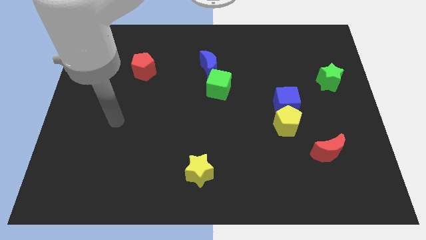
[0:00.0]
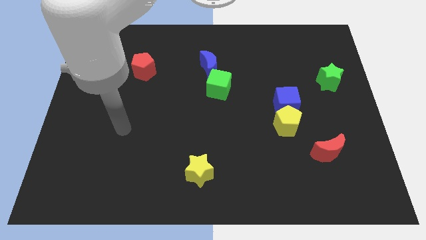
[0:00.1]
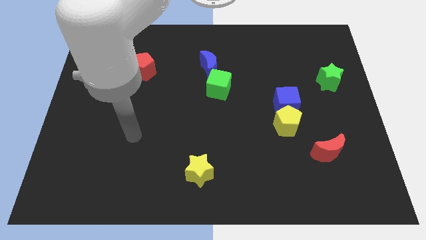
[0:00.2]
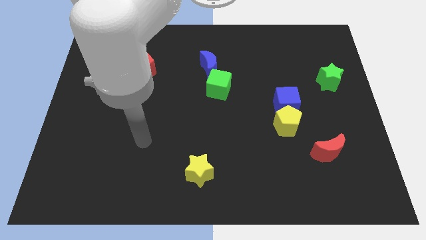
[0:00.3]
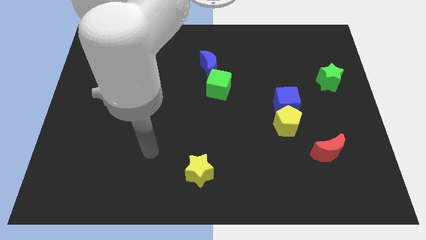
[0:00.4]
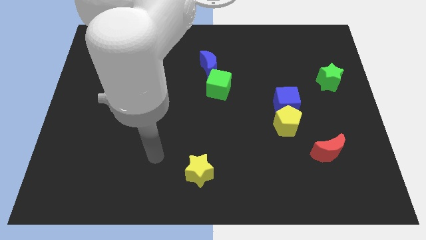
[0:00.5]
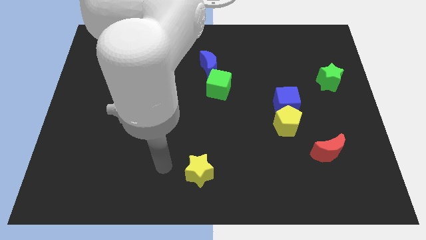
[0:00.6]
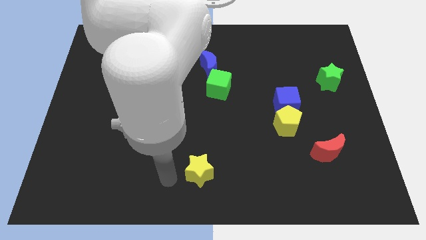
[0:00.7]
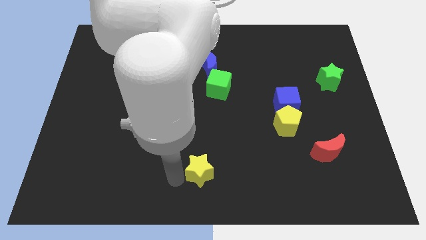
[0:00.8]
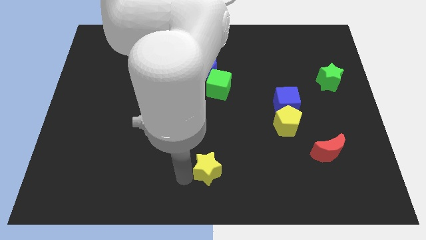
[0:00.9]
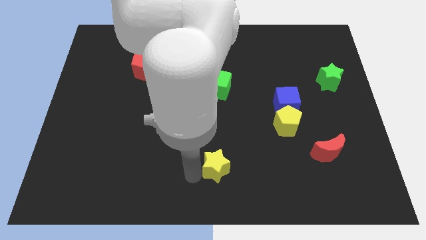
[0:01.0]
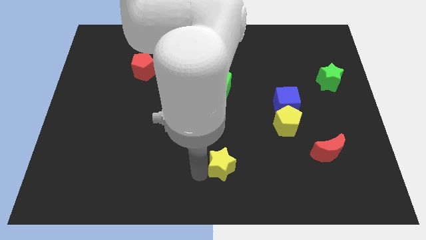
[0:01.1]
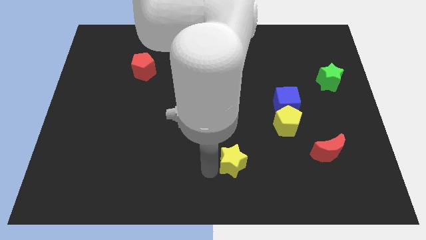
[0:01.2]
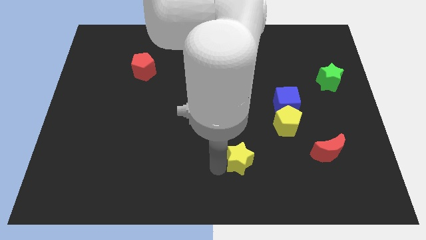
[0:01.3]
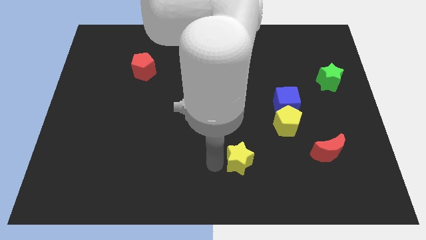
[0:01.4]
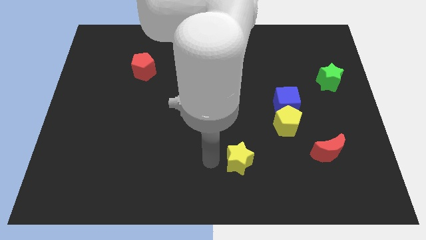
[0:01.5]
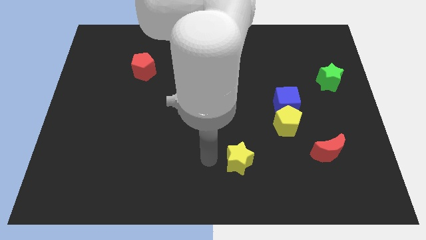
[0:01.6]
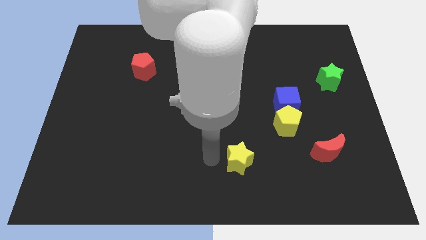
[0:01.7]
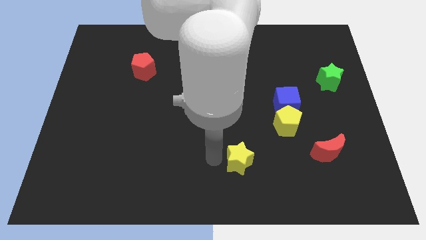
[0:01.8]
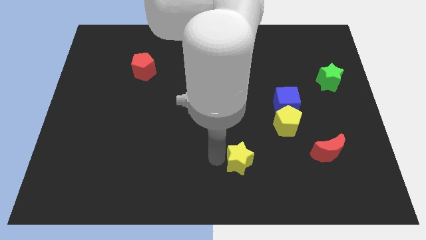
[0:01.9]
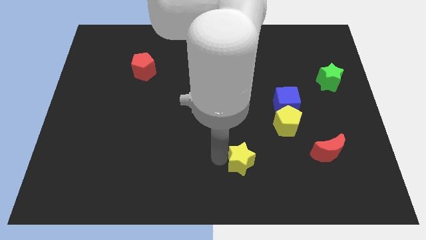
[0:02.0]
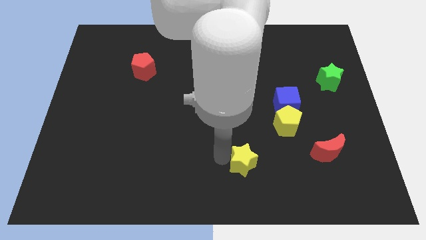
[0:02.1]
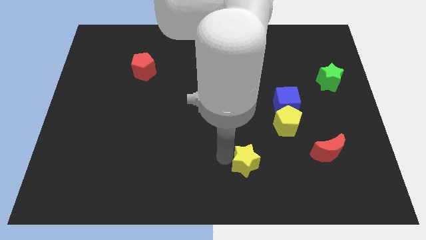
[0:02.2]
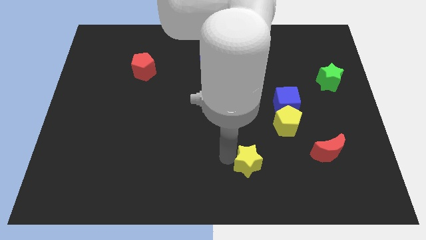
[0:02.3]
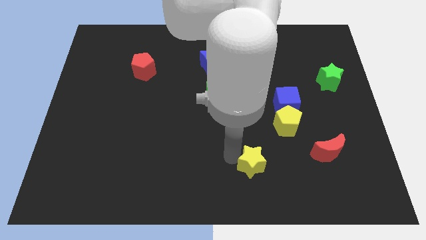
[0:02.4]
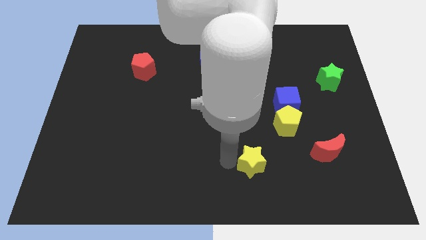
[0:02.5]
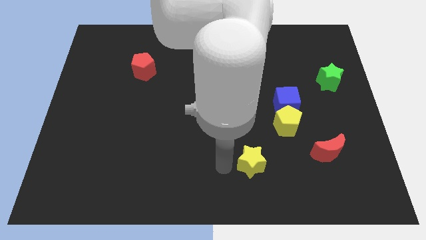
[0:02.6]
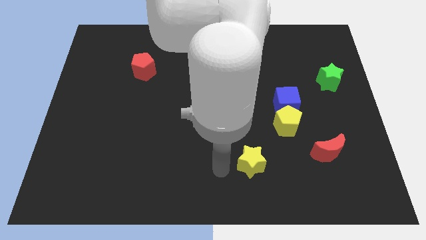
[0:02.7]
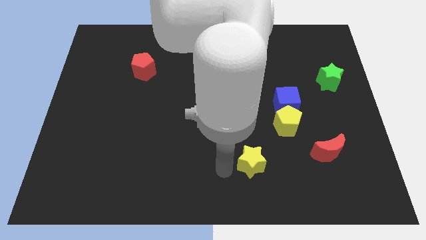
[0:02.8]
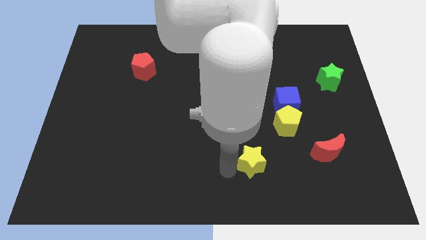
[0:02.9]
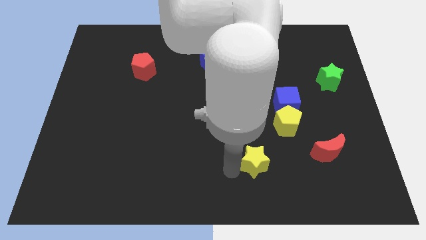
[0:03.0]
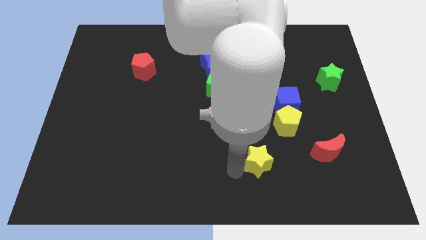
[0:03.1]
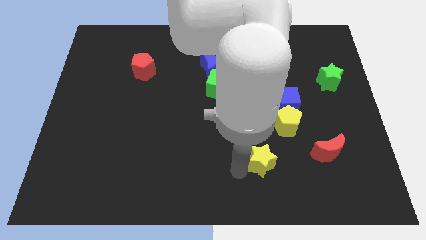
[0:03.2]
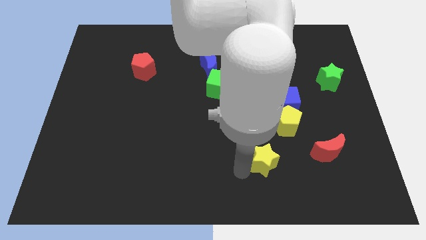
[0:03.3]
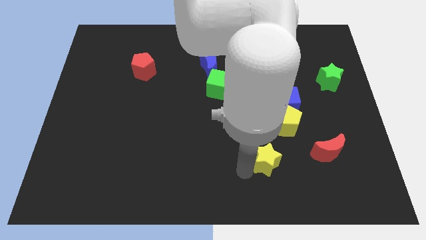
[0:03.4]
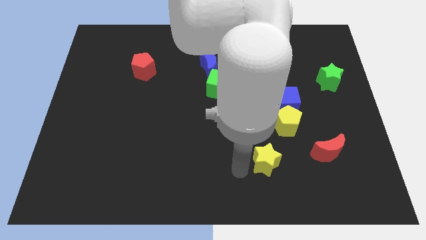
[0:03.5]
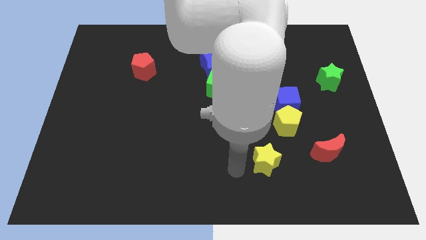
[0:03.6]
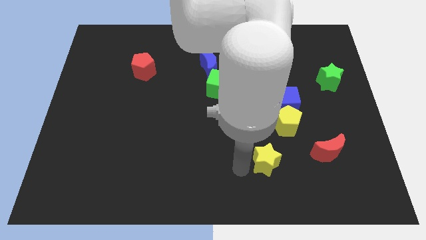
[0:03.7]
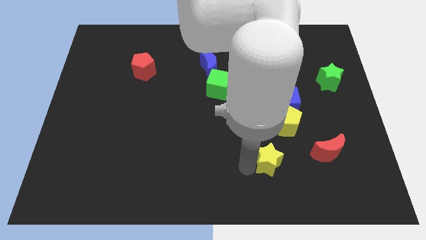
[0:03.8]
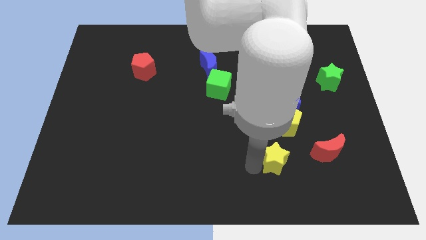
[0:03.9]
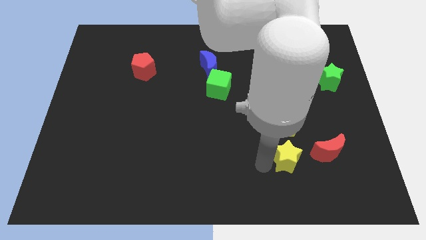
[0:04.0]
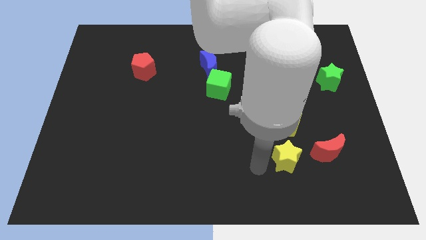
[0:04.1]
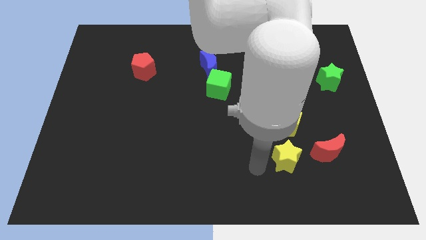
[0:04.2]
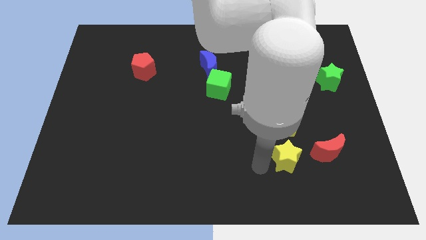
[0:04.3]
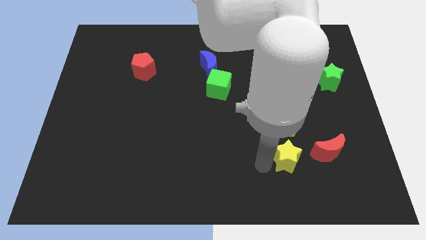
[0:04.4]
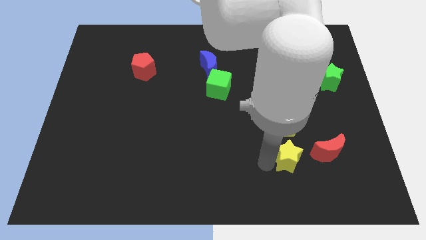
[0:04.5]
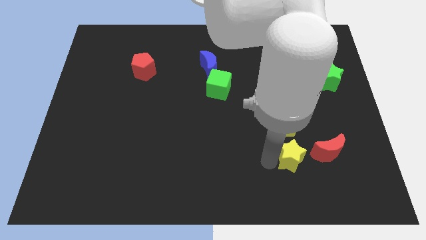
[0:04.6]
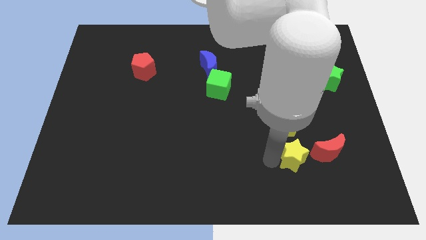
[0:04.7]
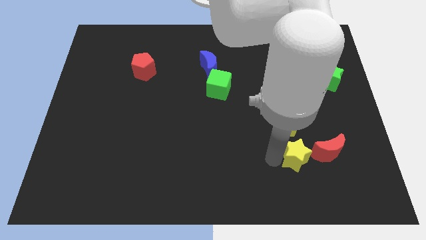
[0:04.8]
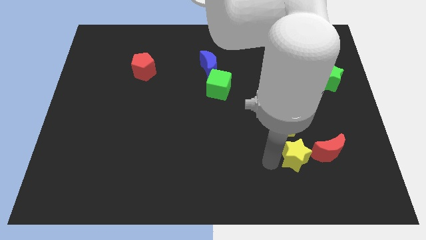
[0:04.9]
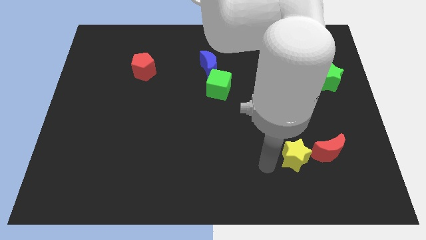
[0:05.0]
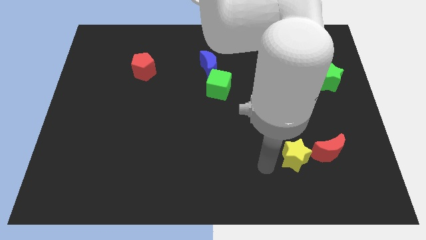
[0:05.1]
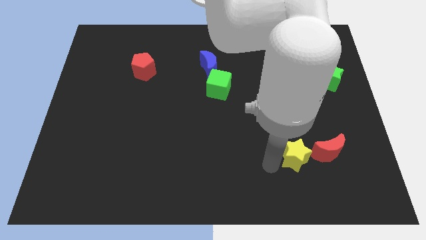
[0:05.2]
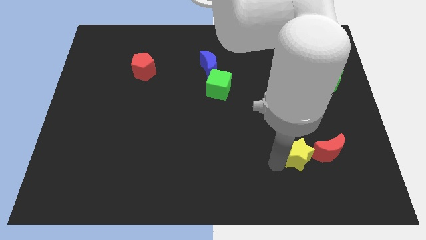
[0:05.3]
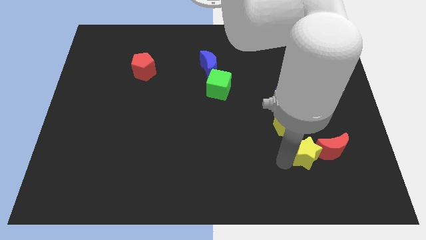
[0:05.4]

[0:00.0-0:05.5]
slide the yellow star close to the red moon

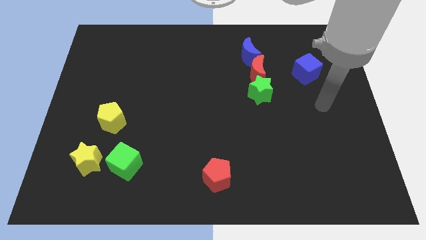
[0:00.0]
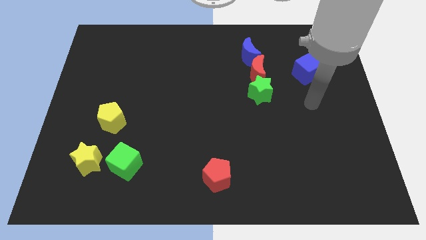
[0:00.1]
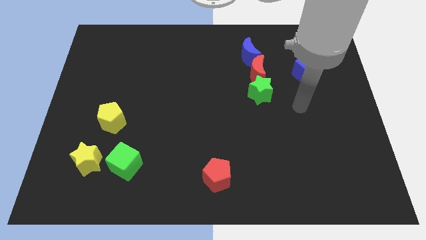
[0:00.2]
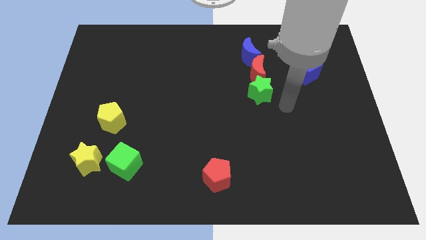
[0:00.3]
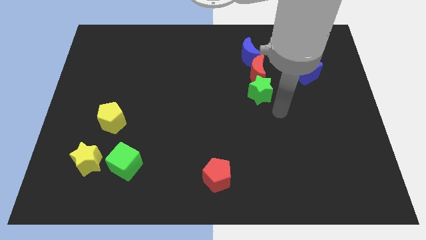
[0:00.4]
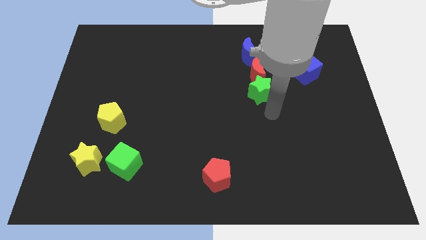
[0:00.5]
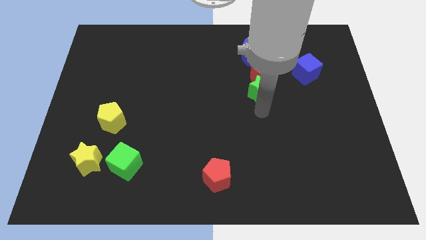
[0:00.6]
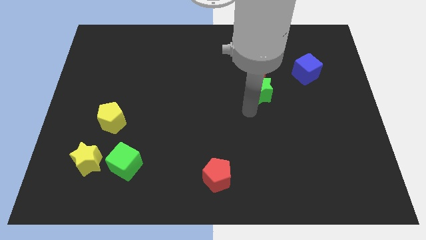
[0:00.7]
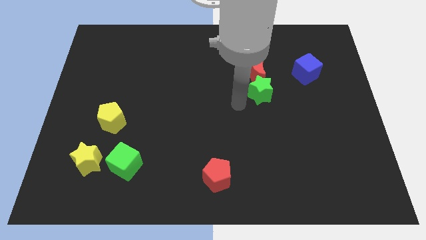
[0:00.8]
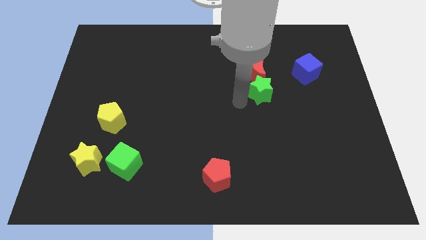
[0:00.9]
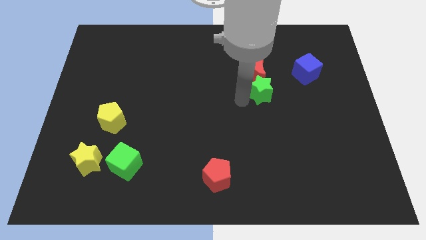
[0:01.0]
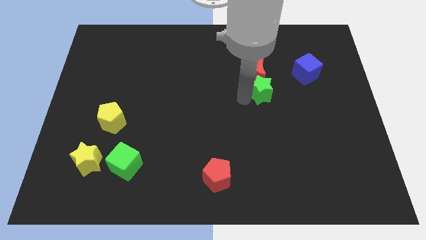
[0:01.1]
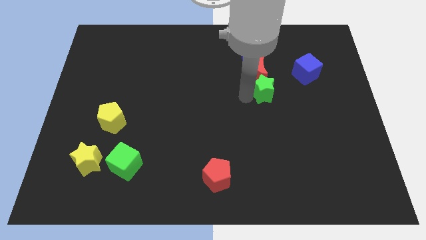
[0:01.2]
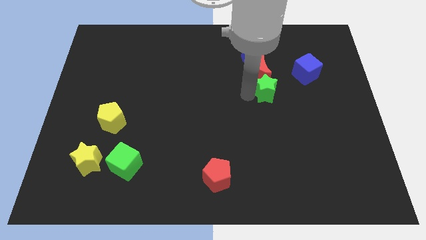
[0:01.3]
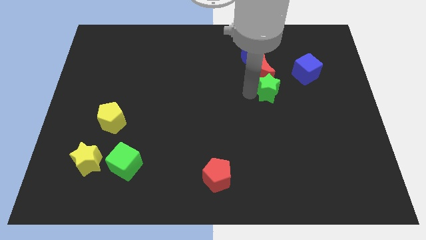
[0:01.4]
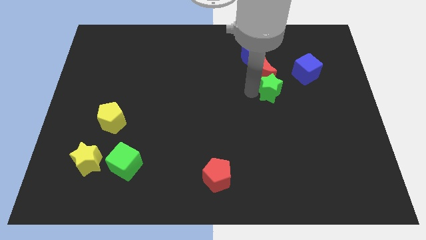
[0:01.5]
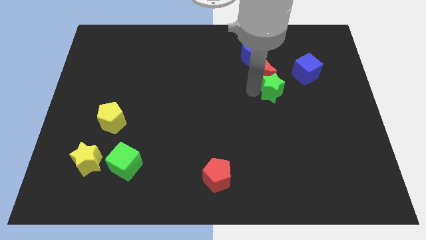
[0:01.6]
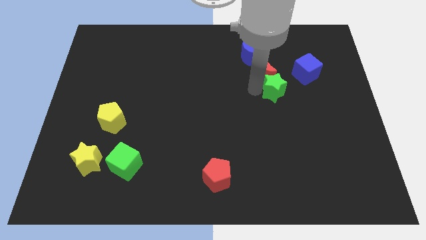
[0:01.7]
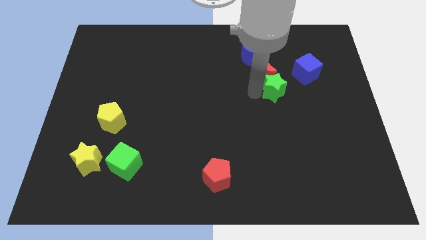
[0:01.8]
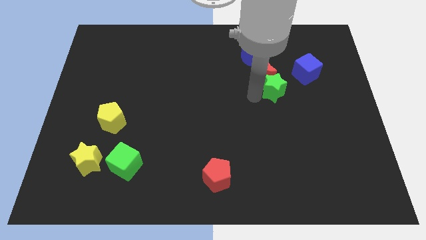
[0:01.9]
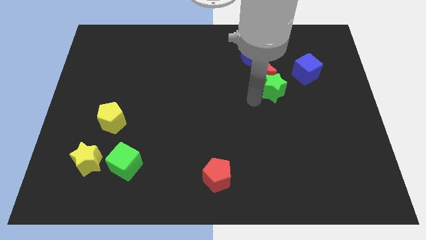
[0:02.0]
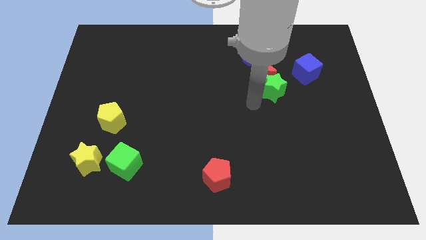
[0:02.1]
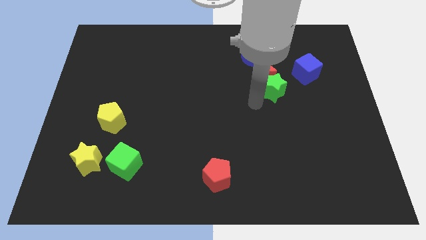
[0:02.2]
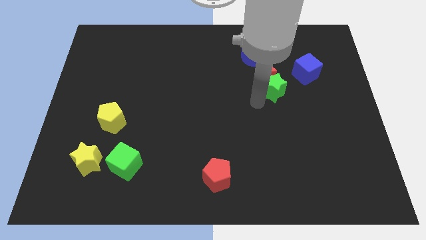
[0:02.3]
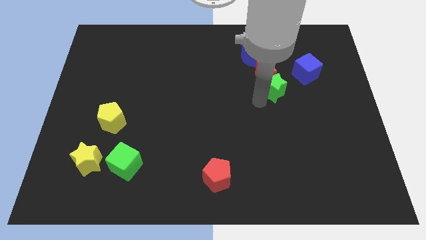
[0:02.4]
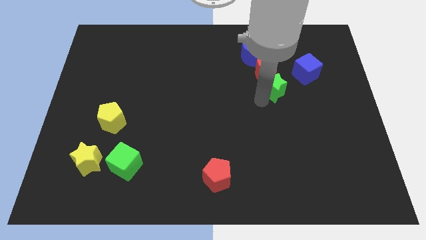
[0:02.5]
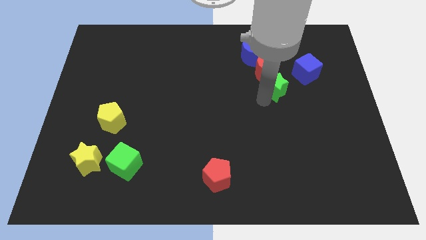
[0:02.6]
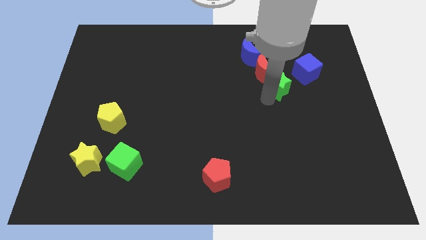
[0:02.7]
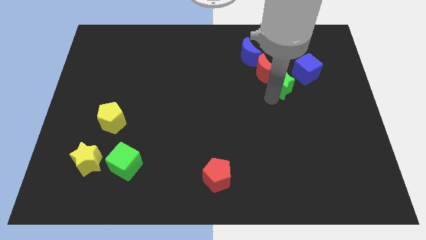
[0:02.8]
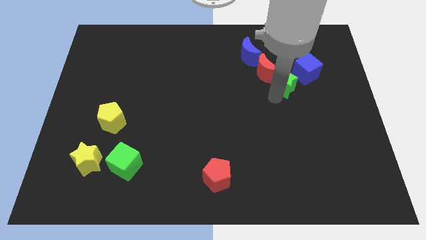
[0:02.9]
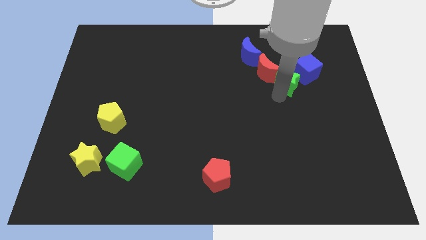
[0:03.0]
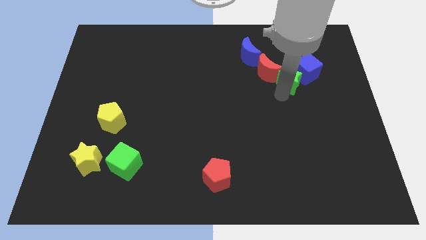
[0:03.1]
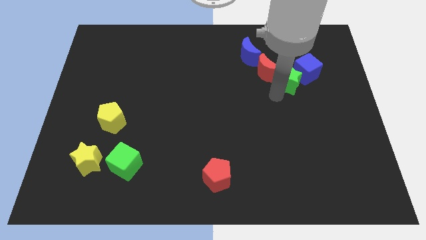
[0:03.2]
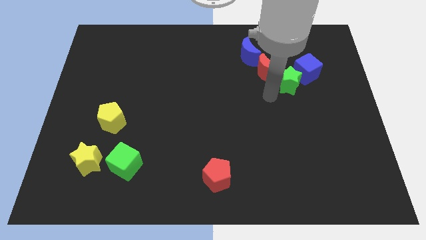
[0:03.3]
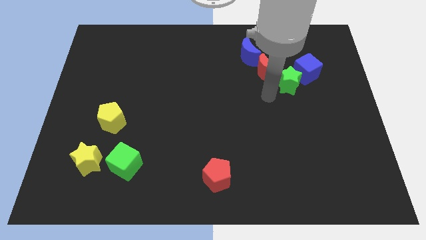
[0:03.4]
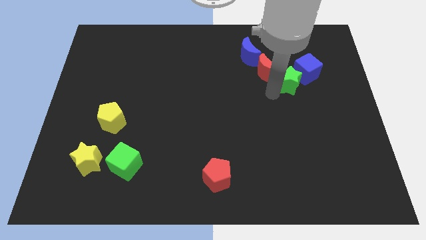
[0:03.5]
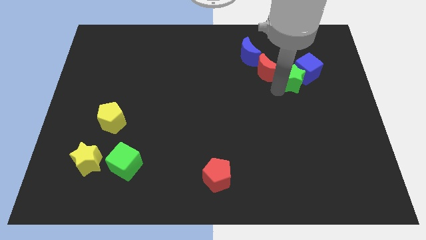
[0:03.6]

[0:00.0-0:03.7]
put the green star next to the blue cube
